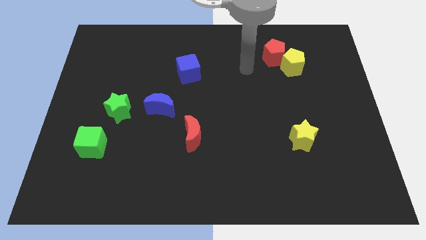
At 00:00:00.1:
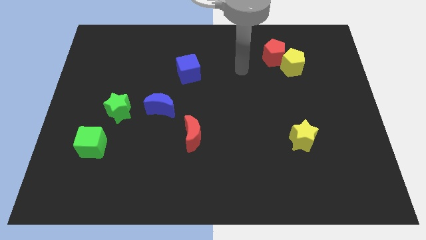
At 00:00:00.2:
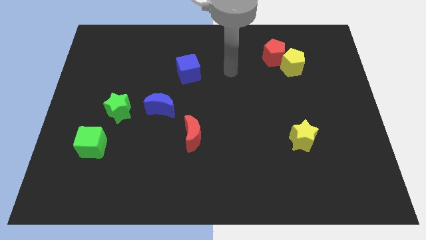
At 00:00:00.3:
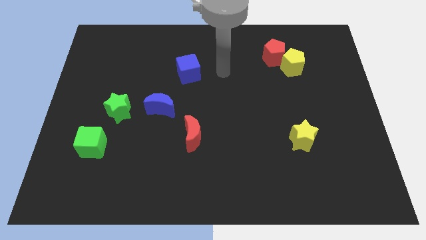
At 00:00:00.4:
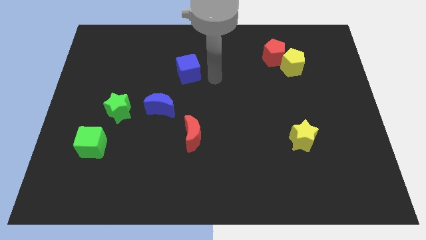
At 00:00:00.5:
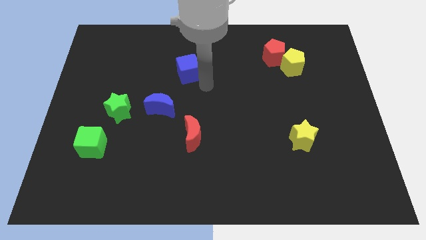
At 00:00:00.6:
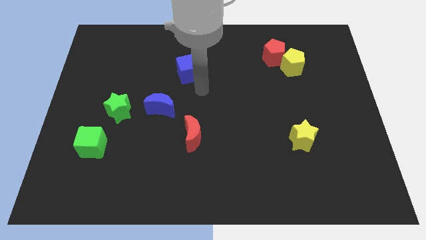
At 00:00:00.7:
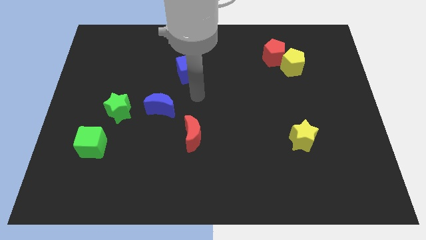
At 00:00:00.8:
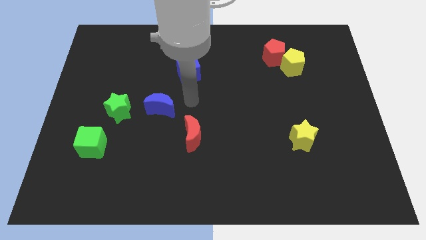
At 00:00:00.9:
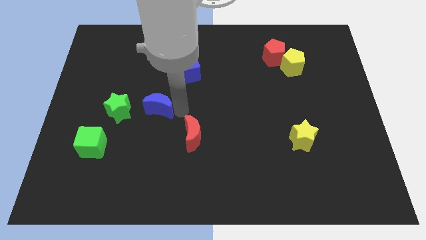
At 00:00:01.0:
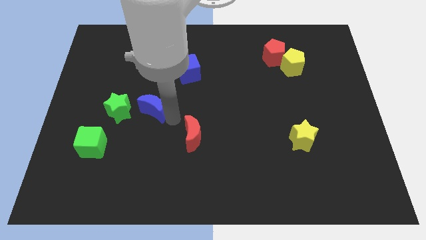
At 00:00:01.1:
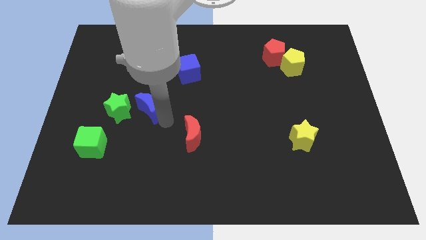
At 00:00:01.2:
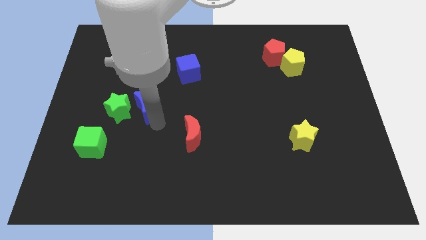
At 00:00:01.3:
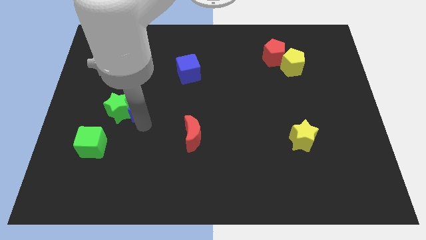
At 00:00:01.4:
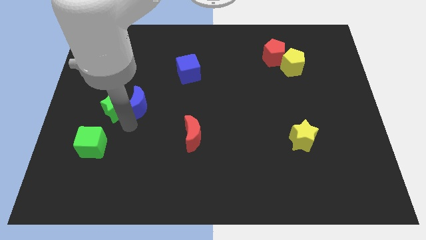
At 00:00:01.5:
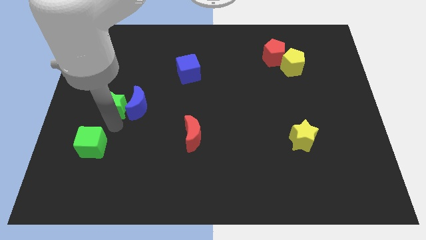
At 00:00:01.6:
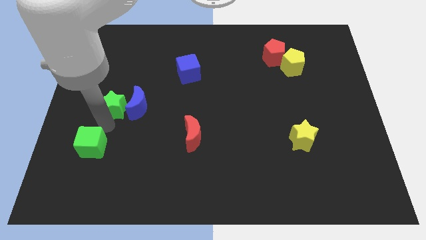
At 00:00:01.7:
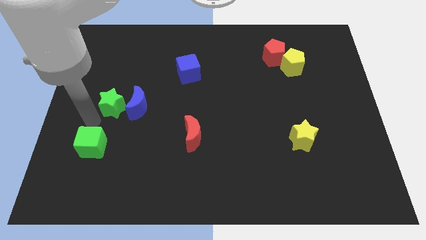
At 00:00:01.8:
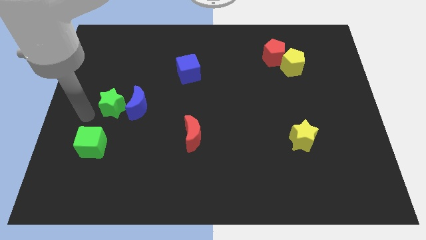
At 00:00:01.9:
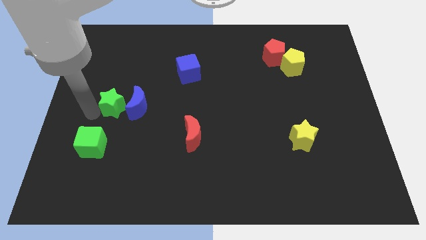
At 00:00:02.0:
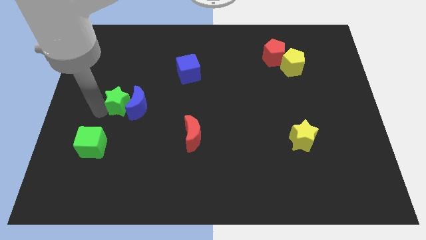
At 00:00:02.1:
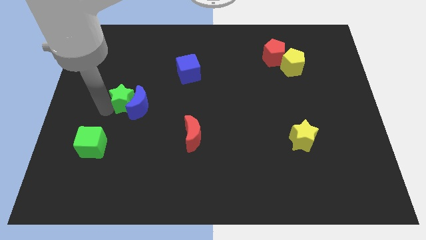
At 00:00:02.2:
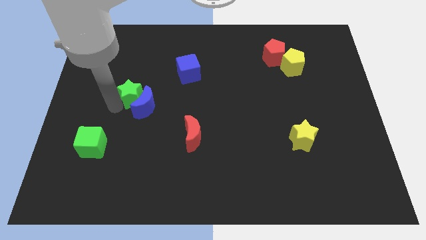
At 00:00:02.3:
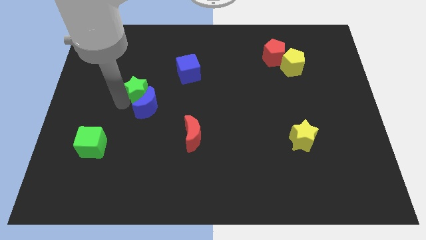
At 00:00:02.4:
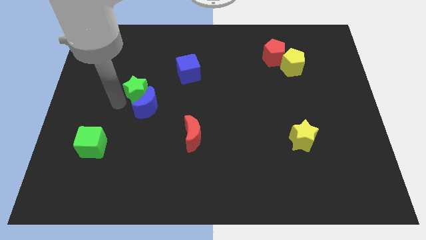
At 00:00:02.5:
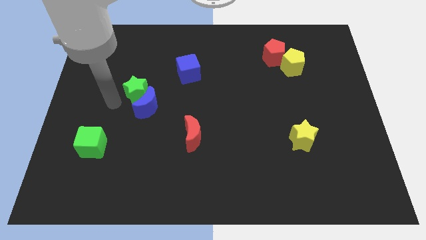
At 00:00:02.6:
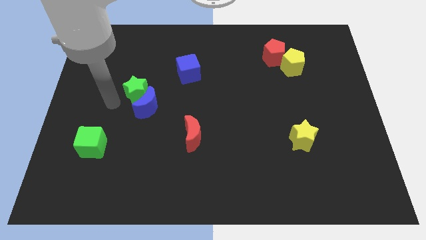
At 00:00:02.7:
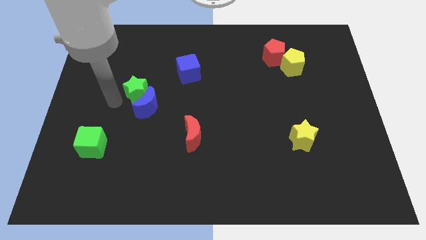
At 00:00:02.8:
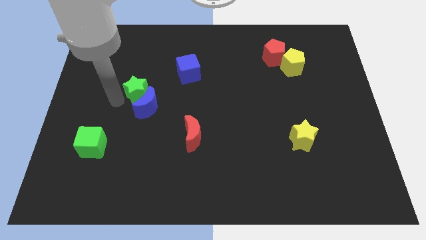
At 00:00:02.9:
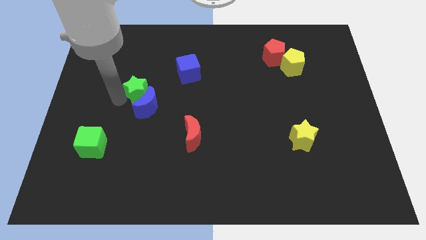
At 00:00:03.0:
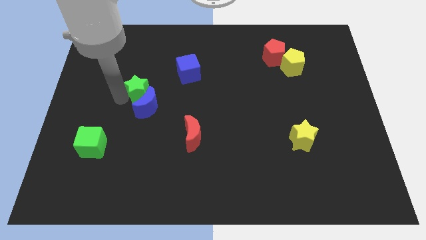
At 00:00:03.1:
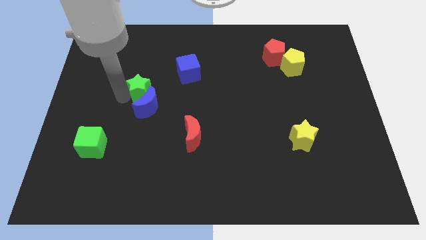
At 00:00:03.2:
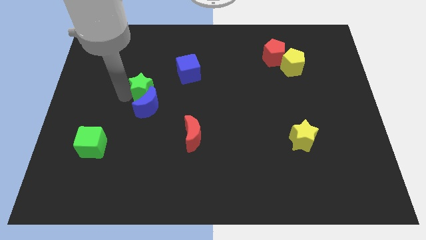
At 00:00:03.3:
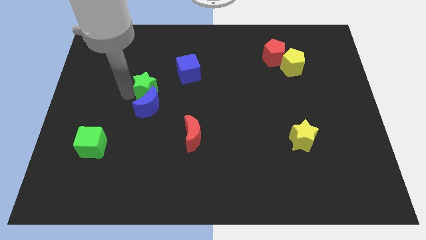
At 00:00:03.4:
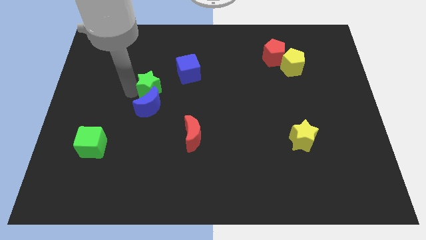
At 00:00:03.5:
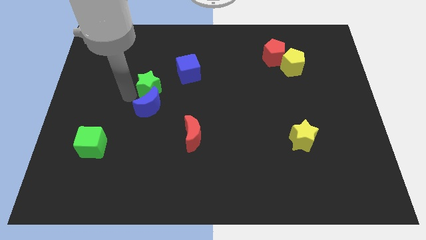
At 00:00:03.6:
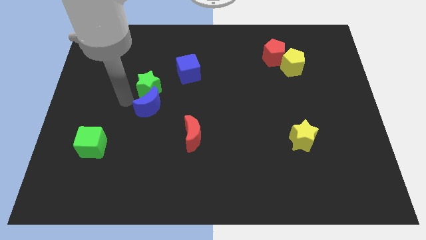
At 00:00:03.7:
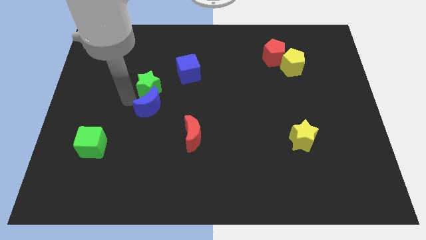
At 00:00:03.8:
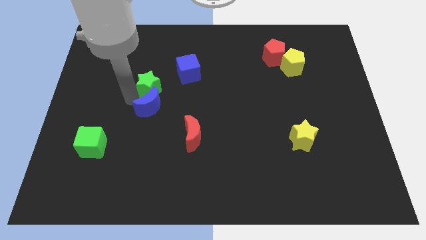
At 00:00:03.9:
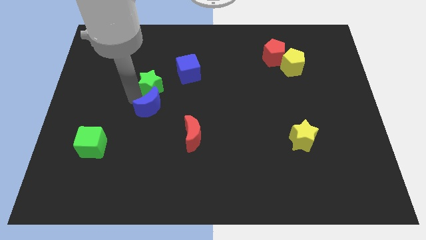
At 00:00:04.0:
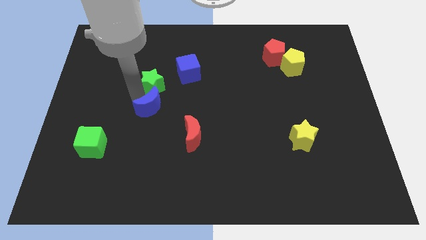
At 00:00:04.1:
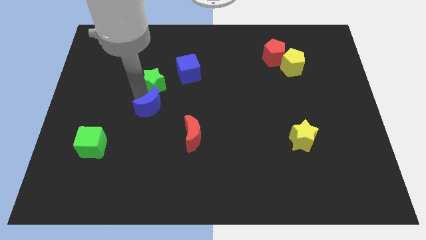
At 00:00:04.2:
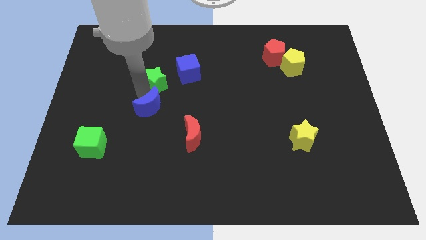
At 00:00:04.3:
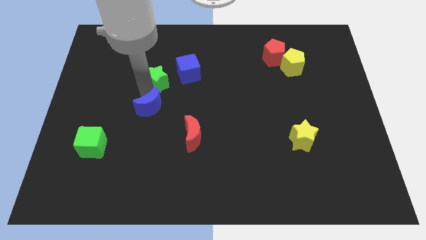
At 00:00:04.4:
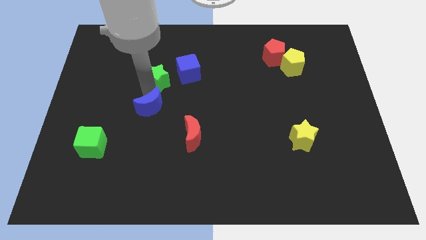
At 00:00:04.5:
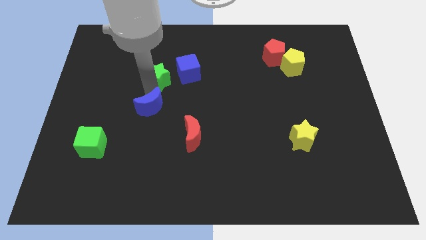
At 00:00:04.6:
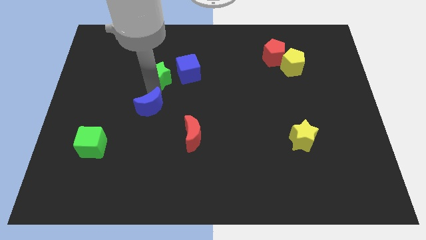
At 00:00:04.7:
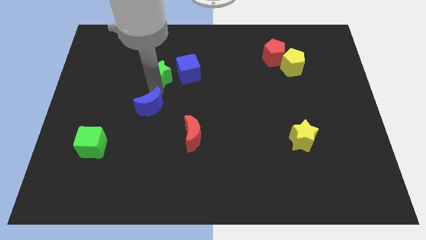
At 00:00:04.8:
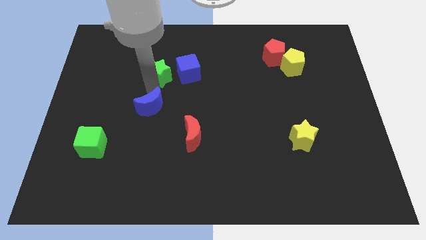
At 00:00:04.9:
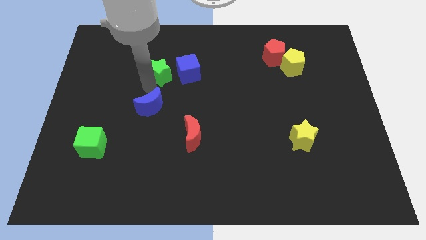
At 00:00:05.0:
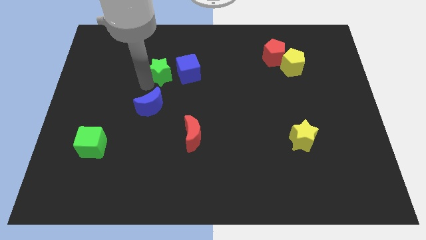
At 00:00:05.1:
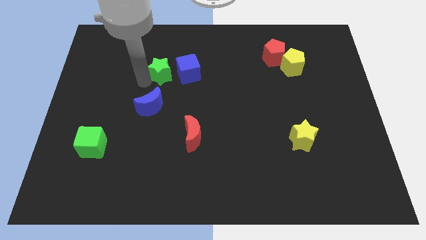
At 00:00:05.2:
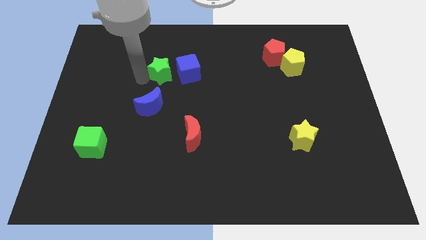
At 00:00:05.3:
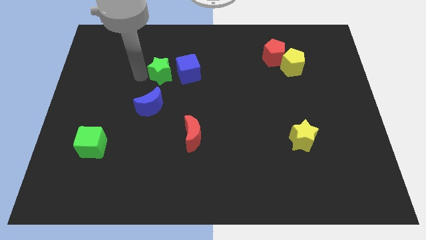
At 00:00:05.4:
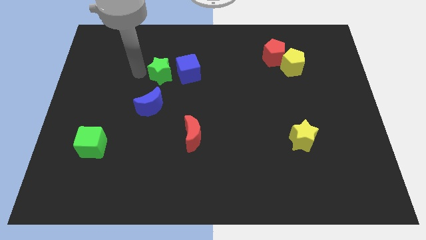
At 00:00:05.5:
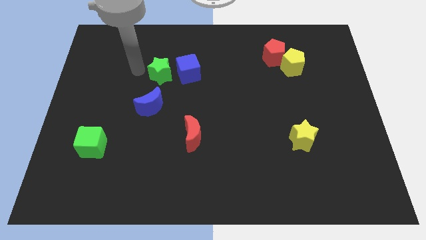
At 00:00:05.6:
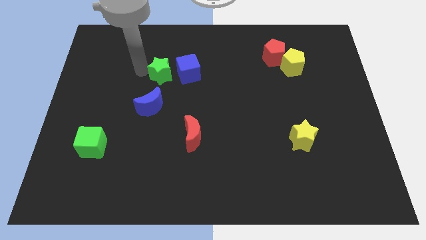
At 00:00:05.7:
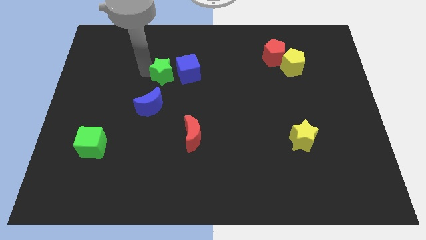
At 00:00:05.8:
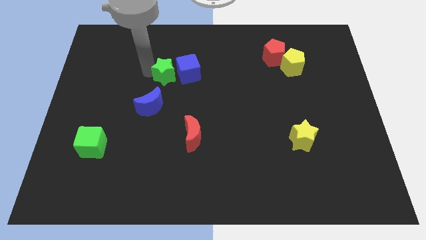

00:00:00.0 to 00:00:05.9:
slide the green star towards the blue cube
